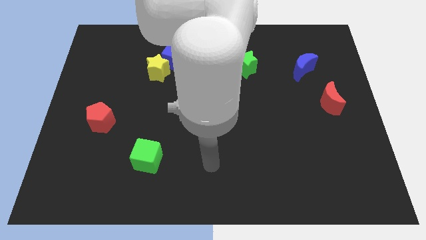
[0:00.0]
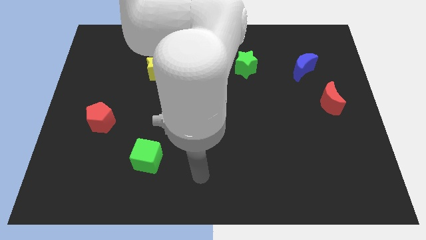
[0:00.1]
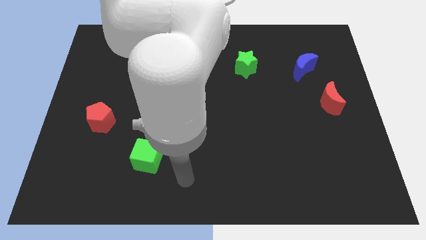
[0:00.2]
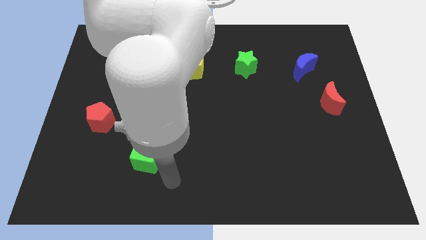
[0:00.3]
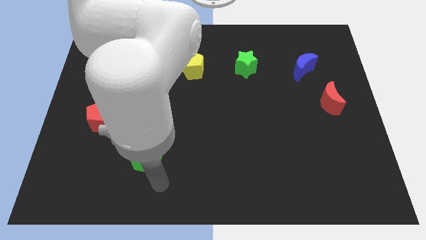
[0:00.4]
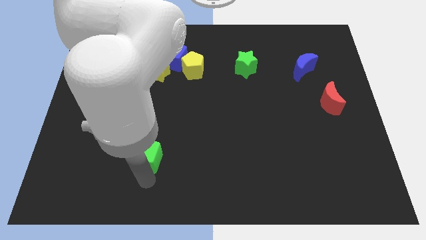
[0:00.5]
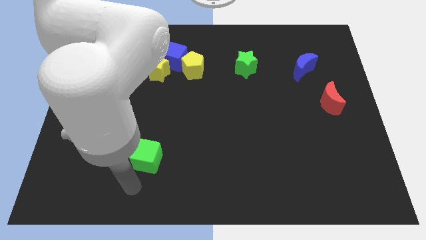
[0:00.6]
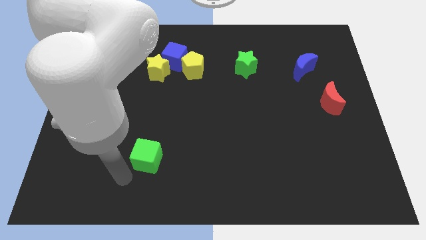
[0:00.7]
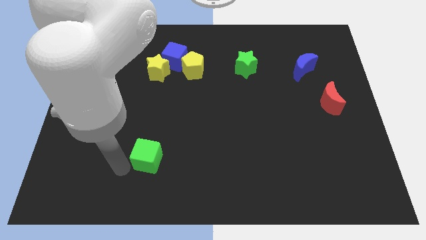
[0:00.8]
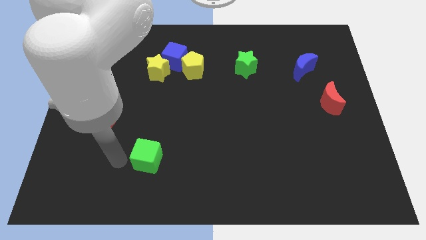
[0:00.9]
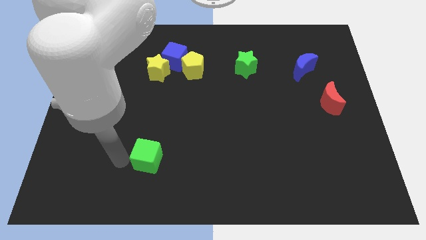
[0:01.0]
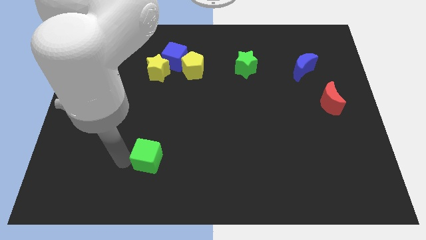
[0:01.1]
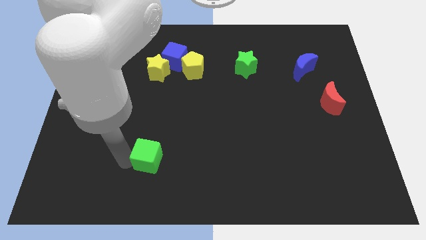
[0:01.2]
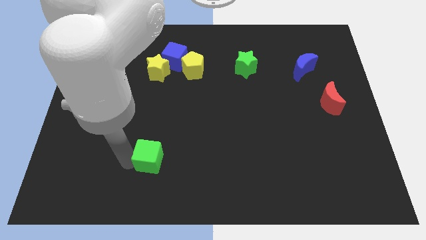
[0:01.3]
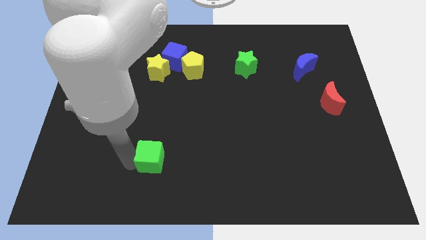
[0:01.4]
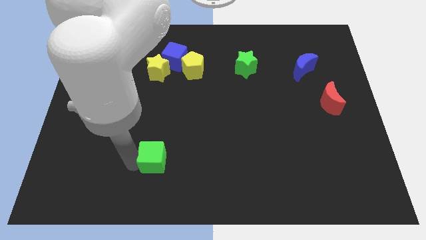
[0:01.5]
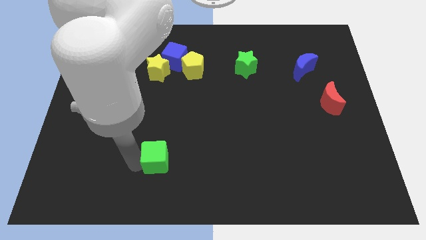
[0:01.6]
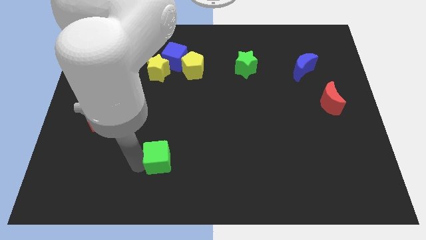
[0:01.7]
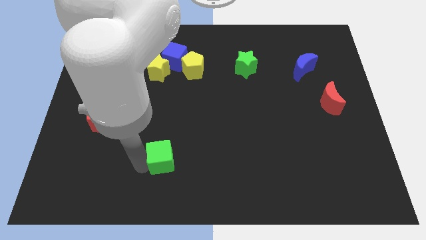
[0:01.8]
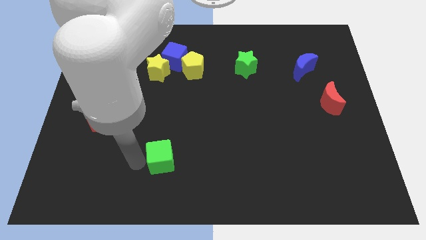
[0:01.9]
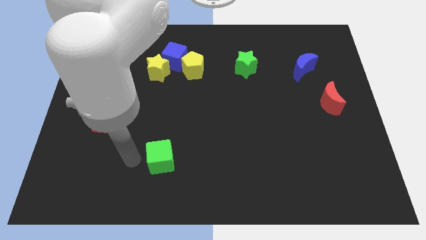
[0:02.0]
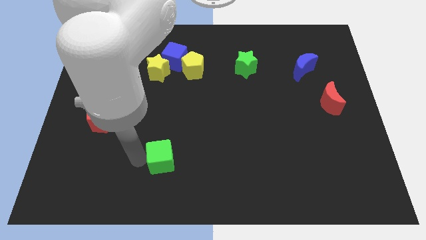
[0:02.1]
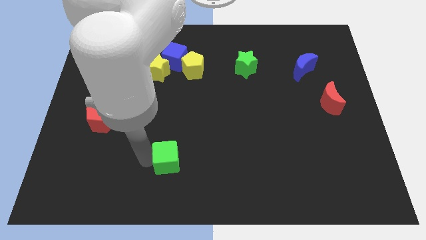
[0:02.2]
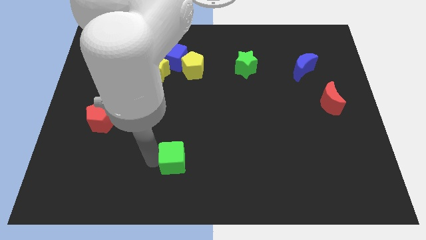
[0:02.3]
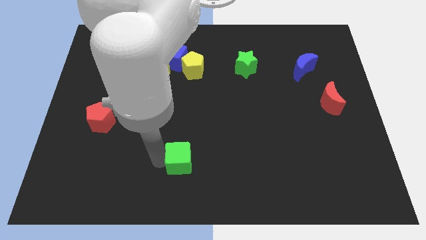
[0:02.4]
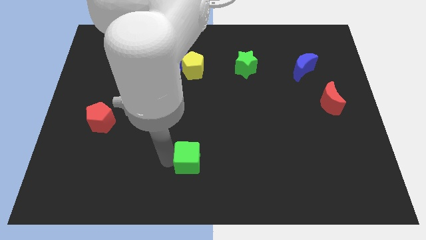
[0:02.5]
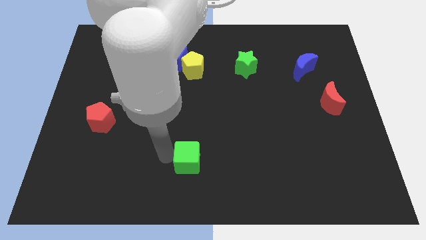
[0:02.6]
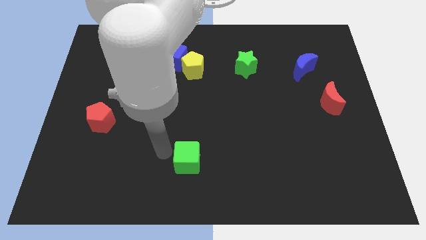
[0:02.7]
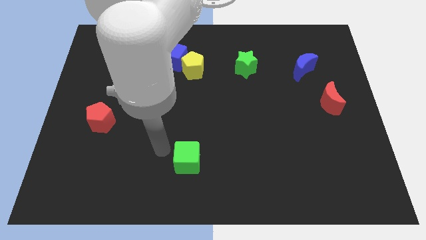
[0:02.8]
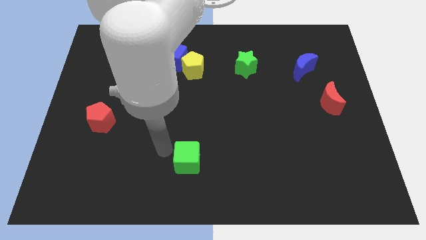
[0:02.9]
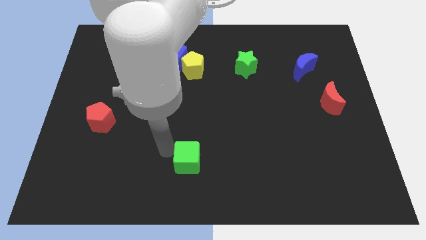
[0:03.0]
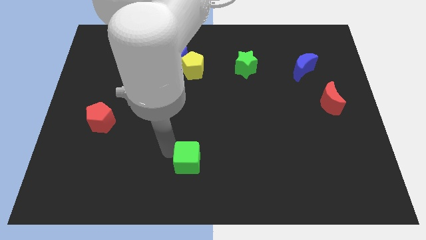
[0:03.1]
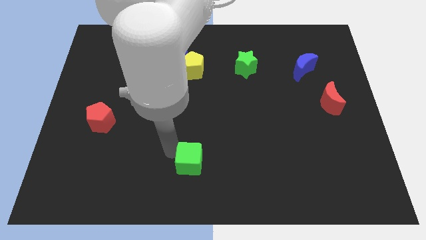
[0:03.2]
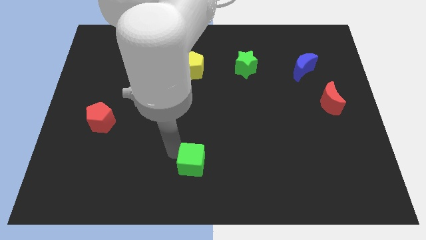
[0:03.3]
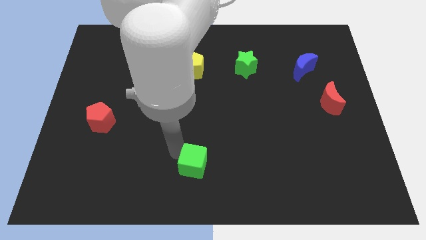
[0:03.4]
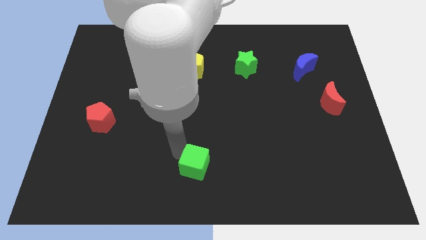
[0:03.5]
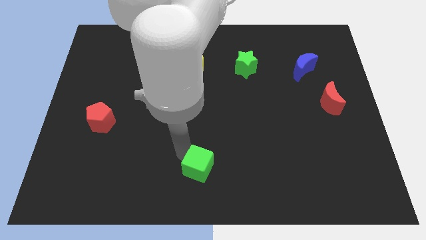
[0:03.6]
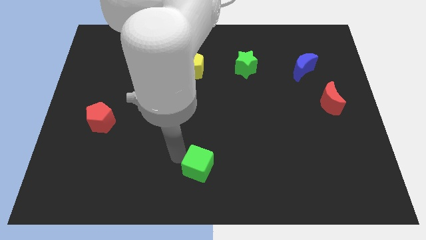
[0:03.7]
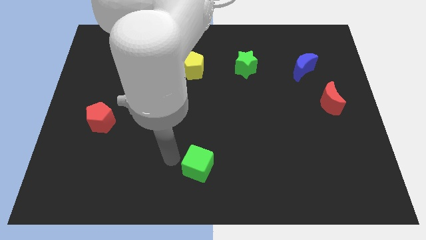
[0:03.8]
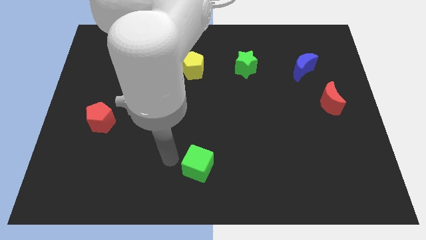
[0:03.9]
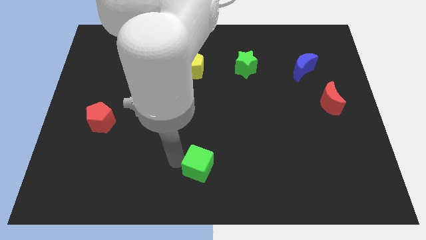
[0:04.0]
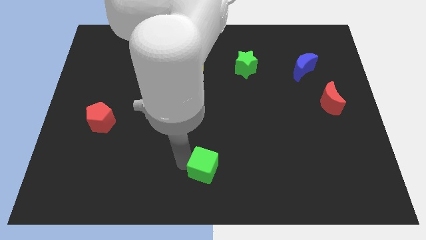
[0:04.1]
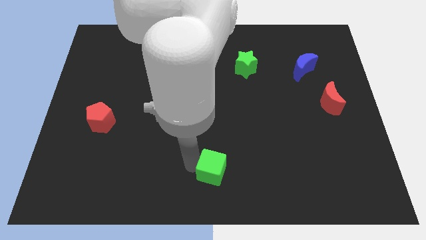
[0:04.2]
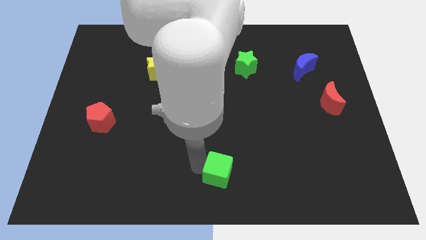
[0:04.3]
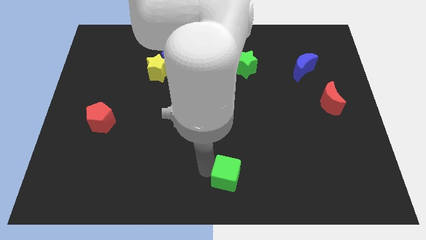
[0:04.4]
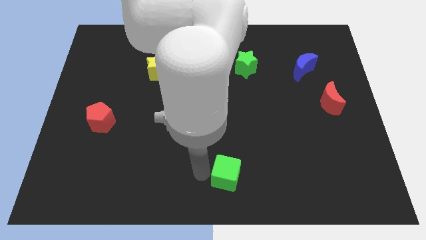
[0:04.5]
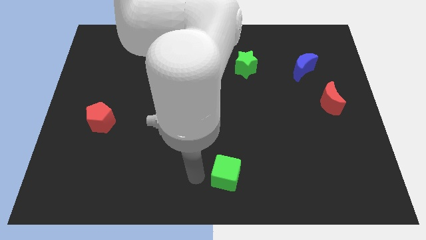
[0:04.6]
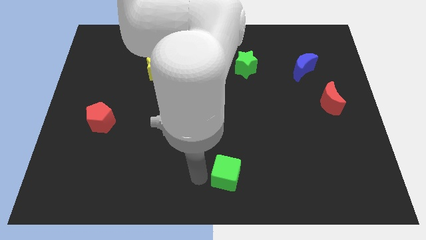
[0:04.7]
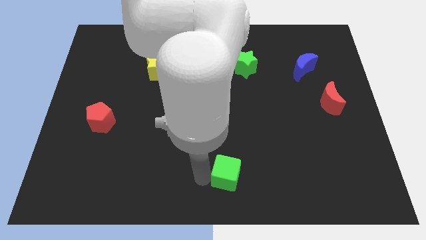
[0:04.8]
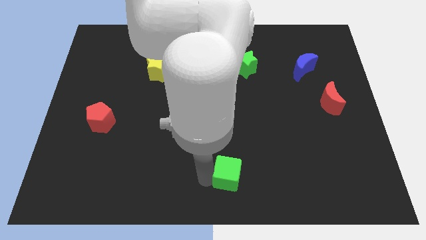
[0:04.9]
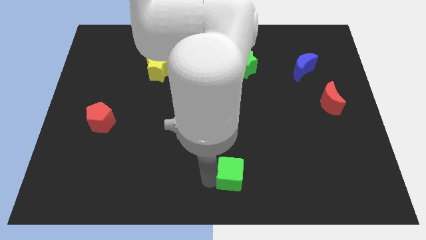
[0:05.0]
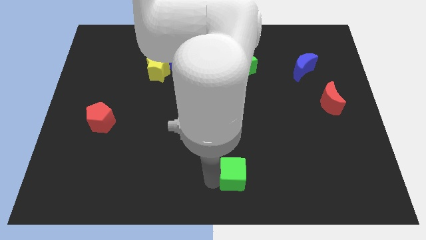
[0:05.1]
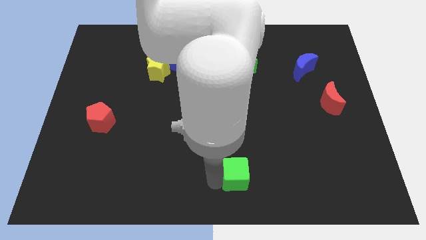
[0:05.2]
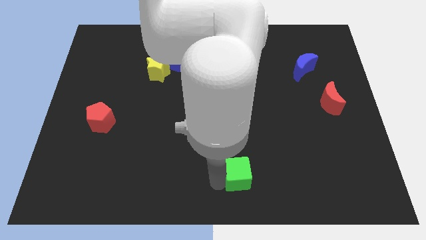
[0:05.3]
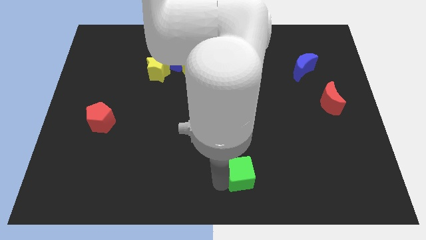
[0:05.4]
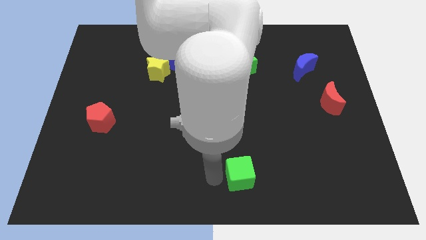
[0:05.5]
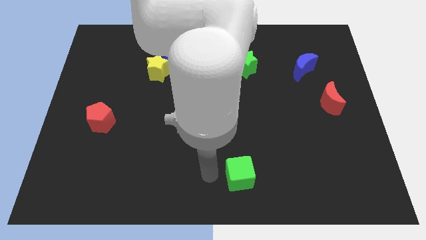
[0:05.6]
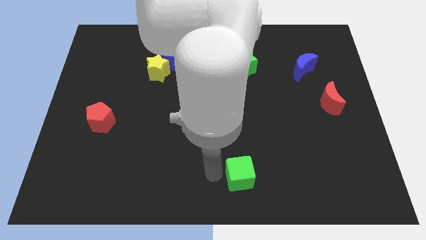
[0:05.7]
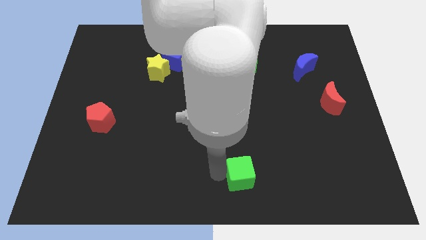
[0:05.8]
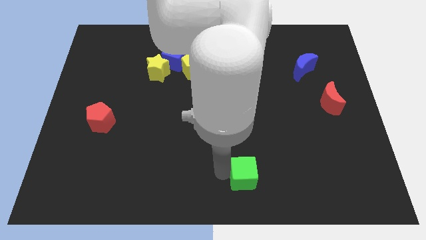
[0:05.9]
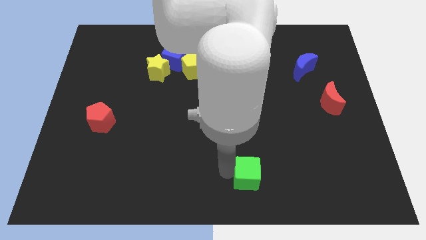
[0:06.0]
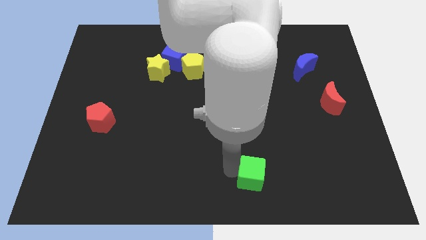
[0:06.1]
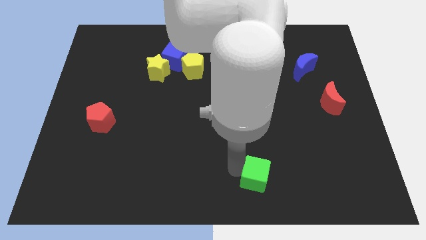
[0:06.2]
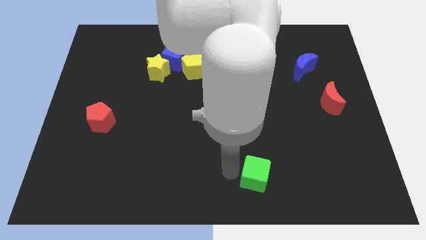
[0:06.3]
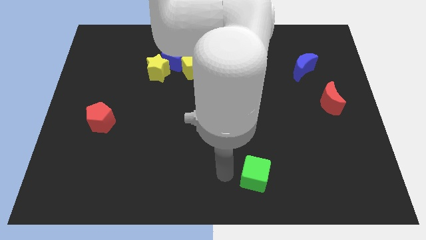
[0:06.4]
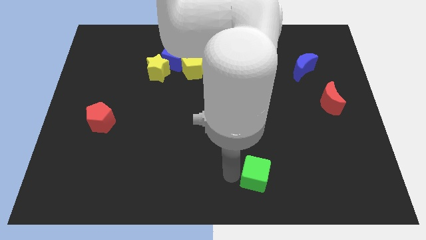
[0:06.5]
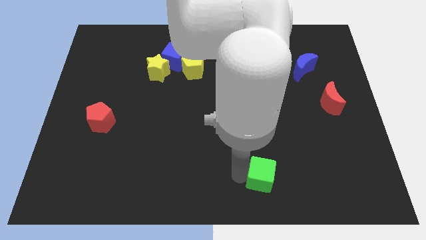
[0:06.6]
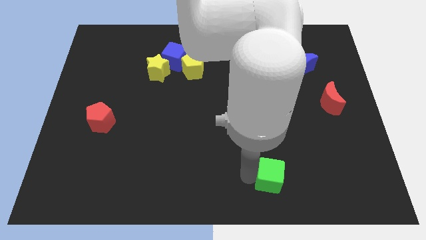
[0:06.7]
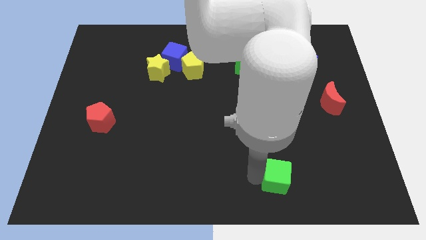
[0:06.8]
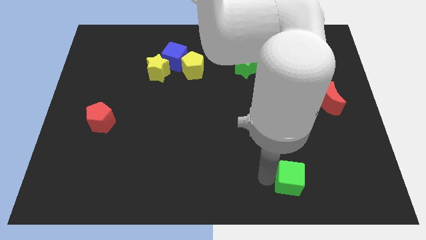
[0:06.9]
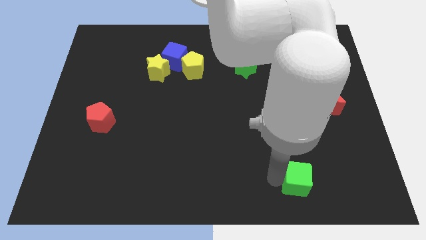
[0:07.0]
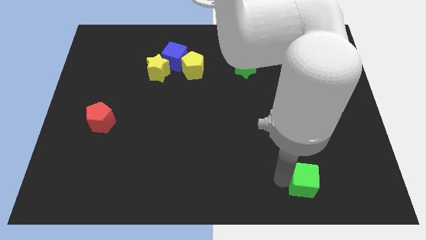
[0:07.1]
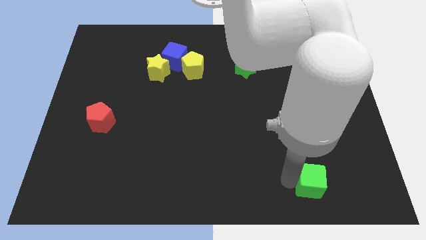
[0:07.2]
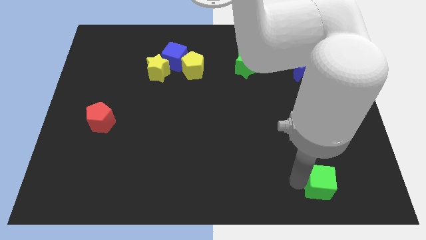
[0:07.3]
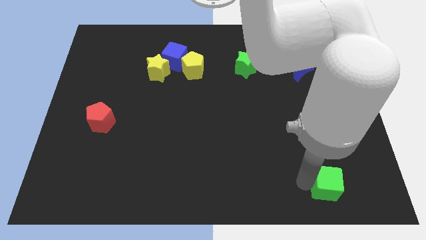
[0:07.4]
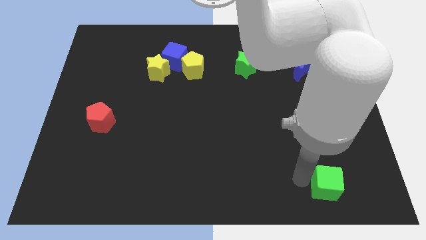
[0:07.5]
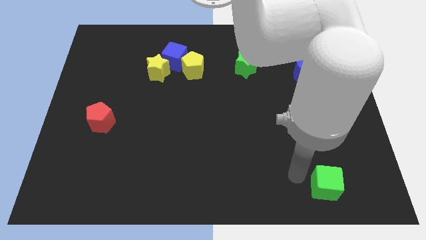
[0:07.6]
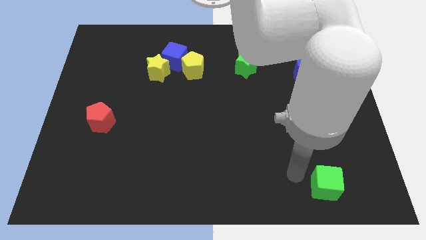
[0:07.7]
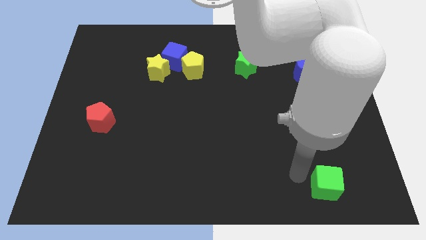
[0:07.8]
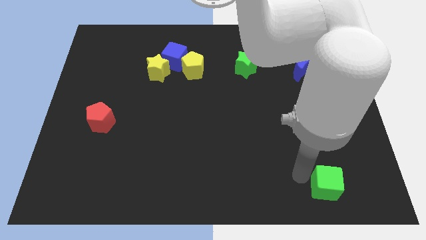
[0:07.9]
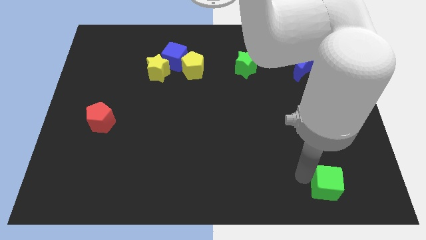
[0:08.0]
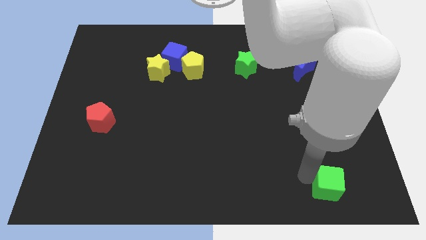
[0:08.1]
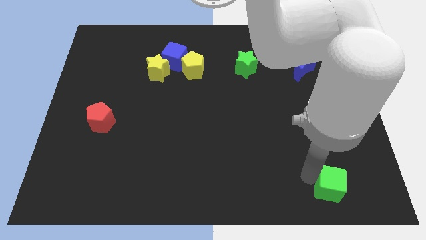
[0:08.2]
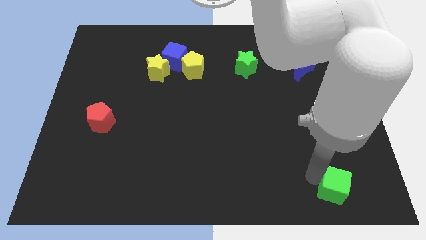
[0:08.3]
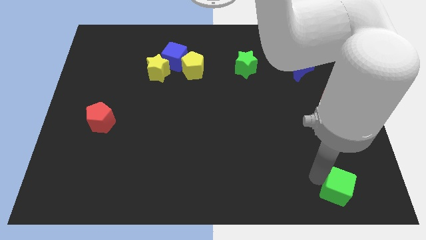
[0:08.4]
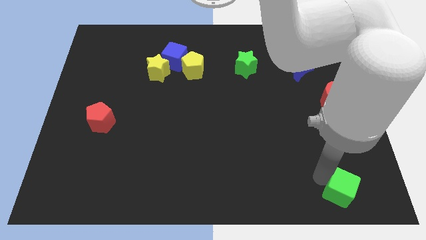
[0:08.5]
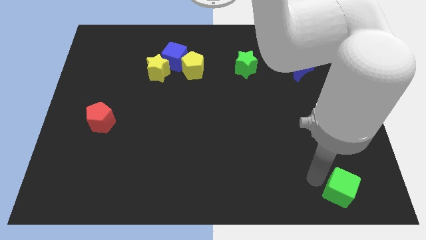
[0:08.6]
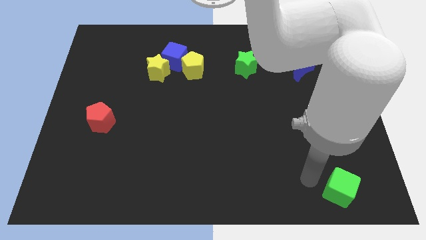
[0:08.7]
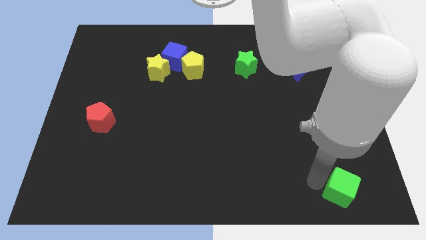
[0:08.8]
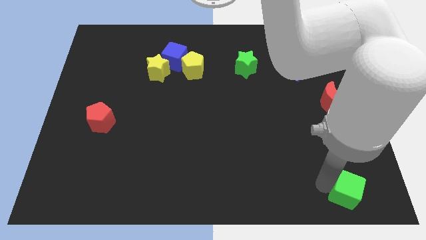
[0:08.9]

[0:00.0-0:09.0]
move the green cube to the bottom right of the board
